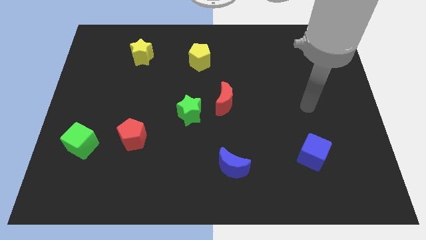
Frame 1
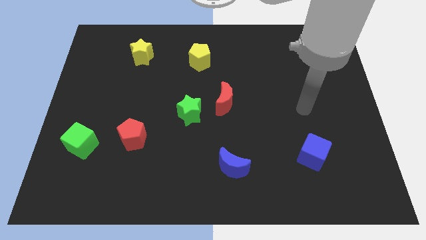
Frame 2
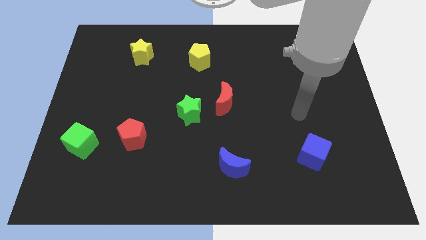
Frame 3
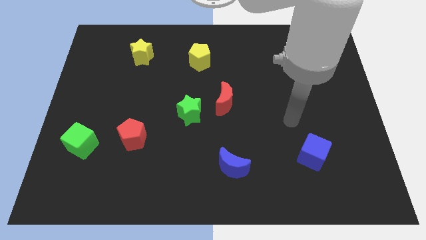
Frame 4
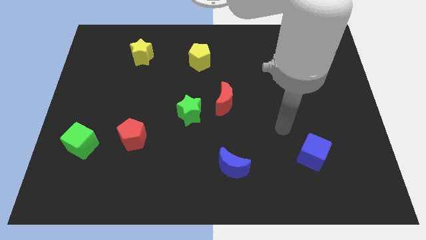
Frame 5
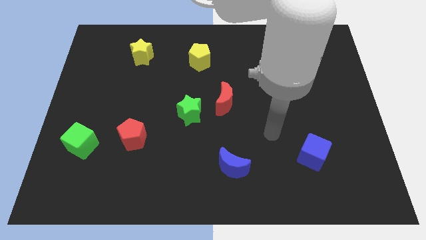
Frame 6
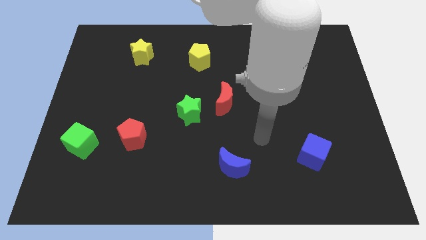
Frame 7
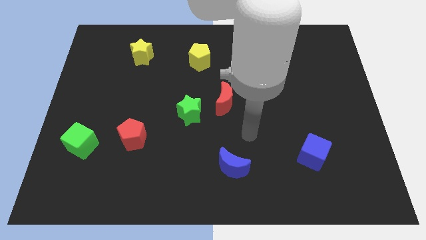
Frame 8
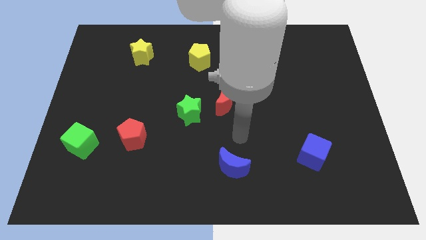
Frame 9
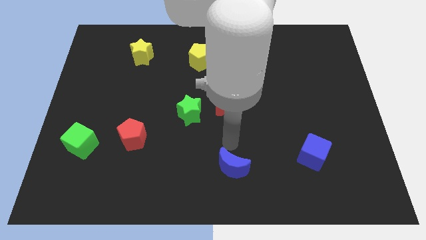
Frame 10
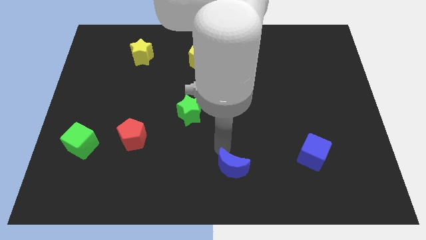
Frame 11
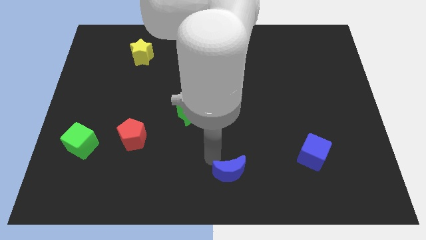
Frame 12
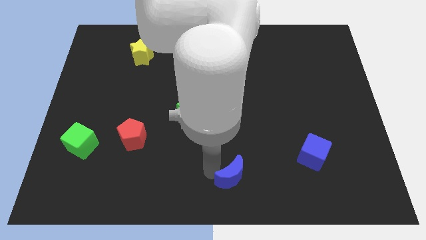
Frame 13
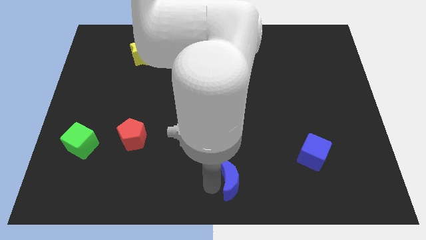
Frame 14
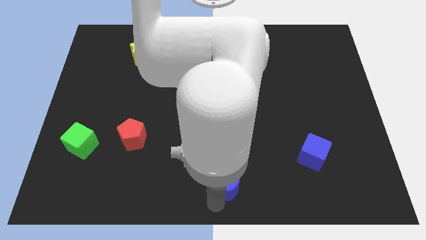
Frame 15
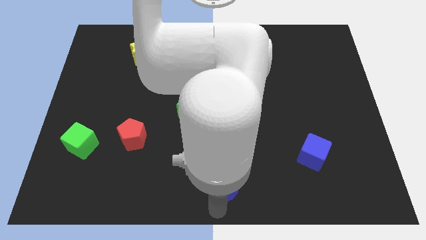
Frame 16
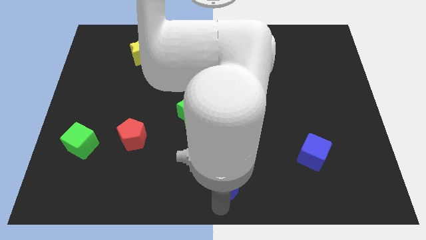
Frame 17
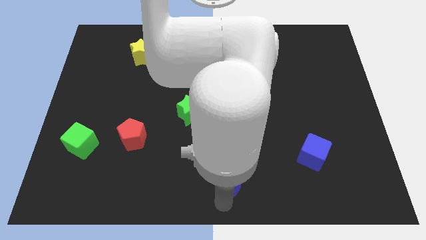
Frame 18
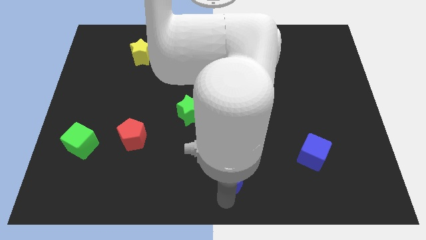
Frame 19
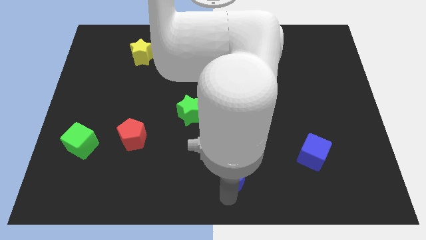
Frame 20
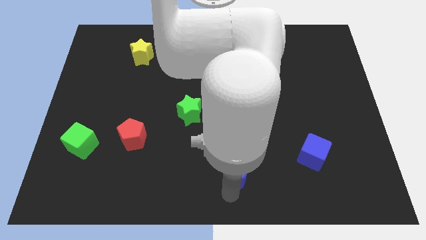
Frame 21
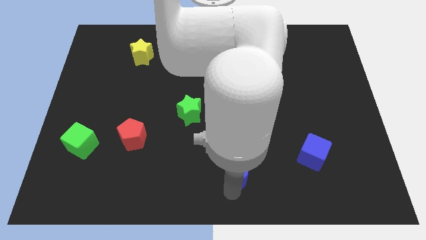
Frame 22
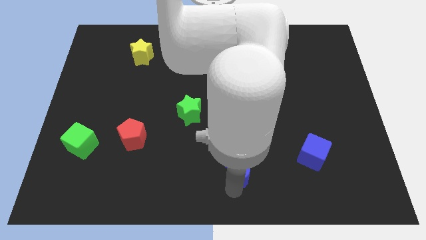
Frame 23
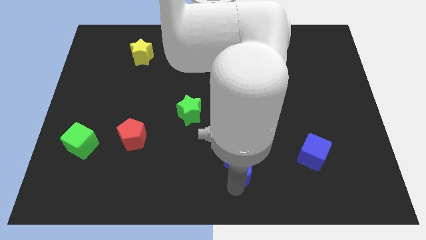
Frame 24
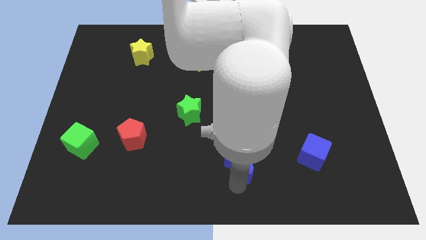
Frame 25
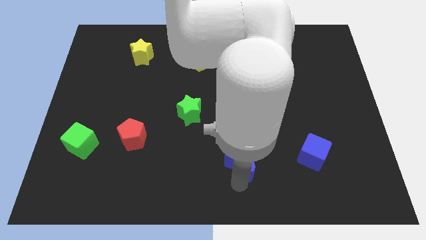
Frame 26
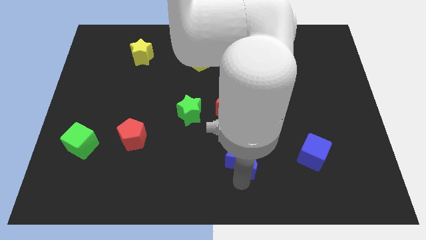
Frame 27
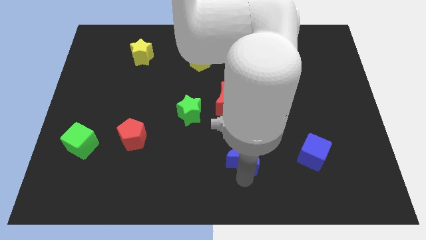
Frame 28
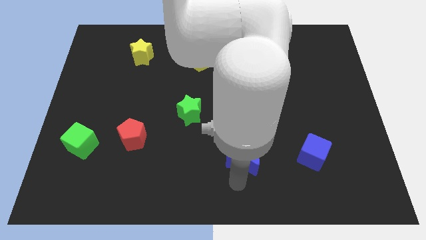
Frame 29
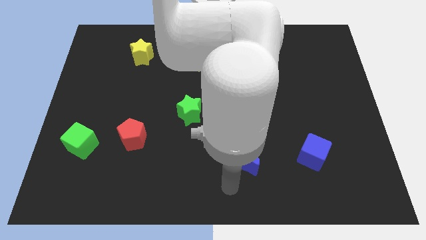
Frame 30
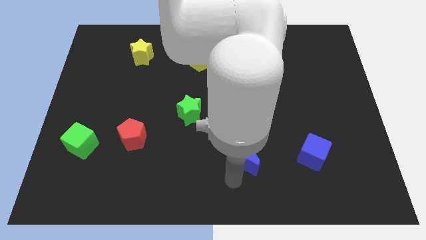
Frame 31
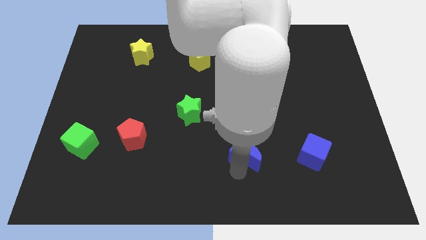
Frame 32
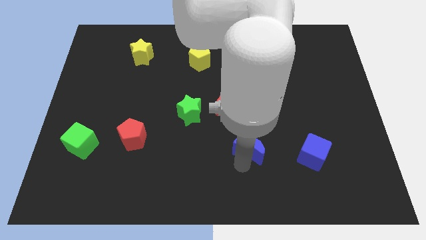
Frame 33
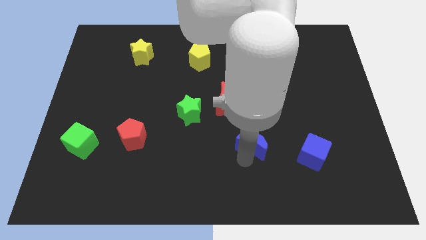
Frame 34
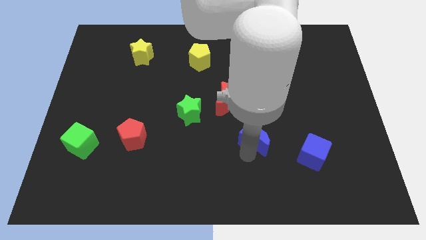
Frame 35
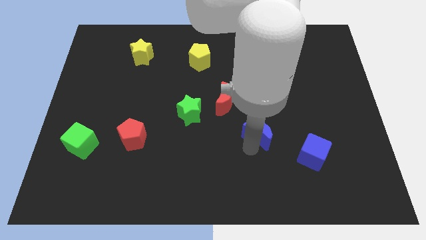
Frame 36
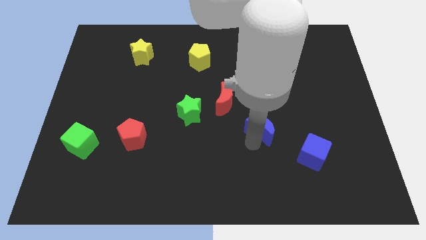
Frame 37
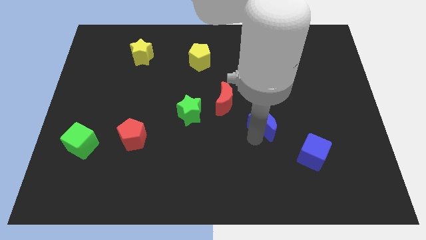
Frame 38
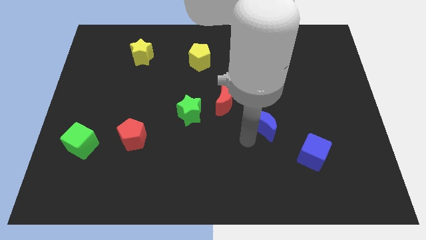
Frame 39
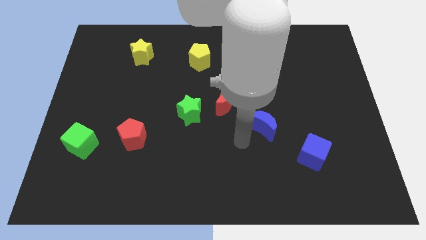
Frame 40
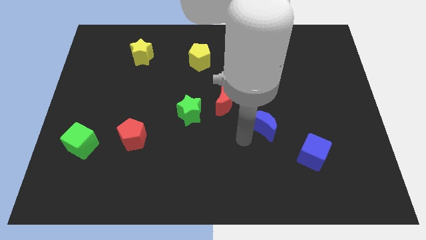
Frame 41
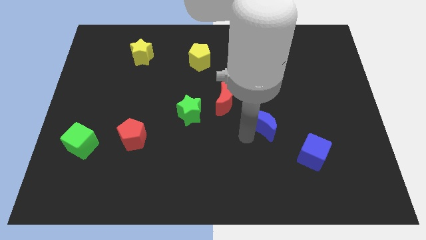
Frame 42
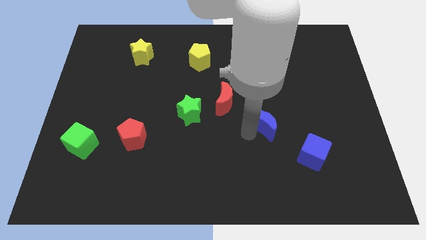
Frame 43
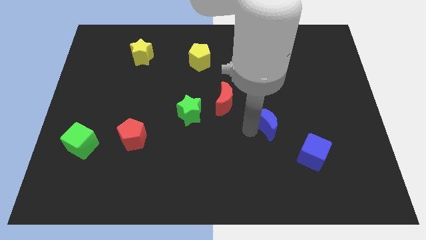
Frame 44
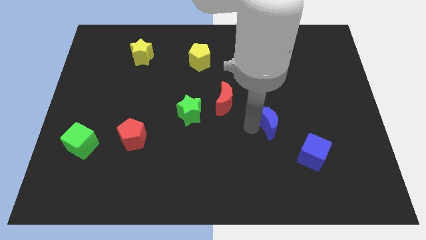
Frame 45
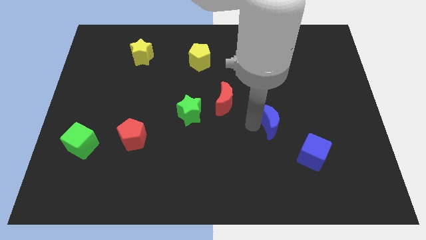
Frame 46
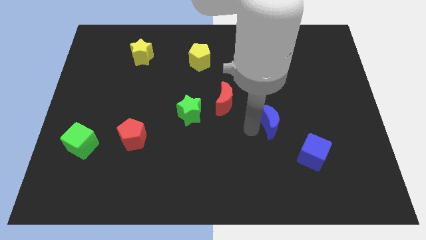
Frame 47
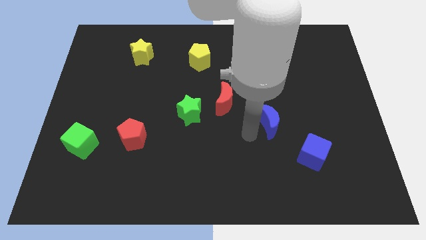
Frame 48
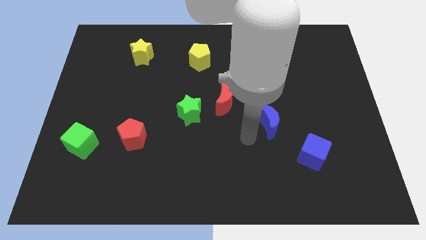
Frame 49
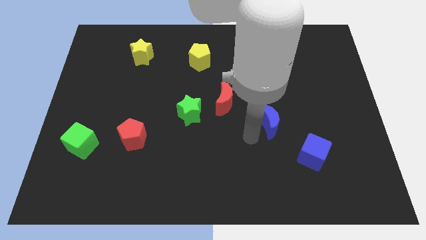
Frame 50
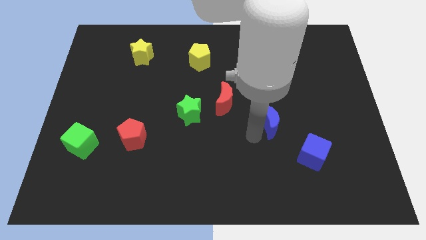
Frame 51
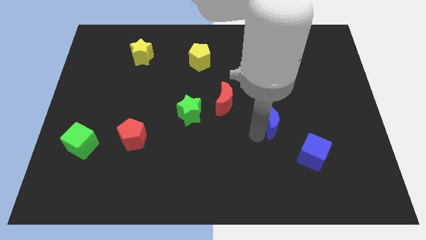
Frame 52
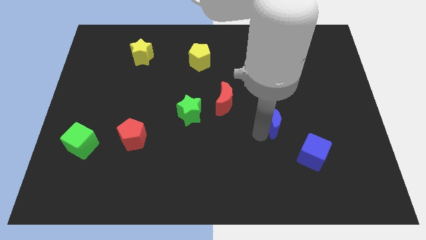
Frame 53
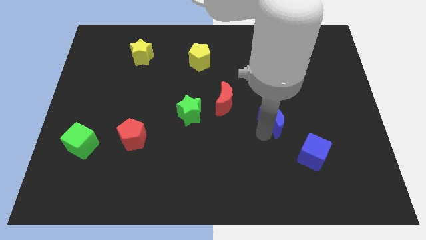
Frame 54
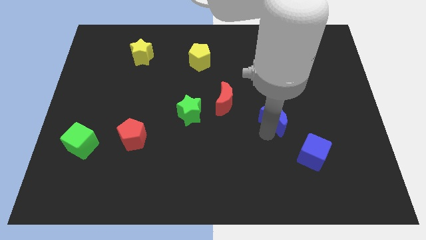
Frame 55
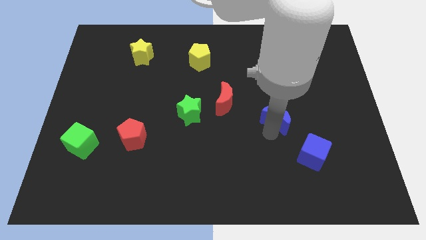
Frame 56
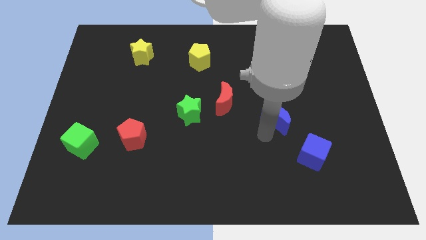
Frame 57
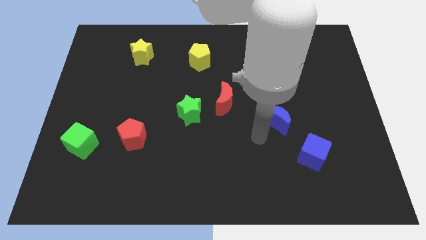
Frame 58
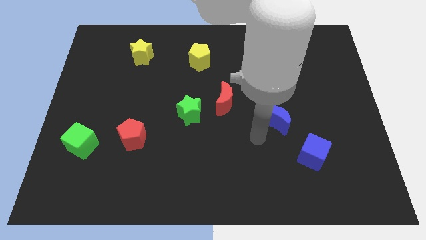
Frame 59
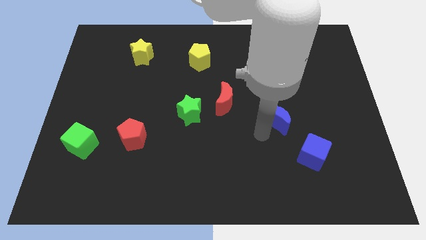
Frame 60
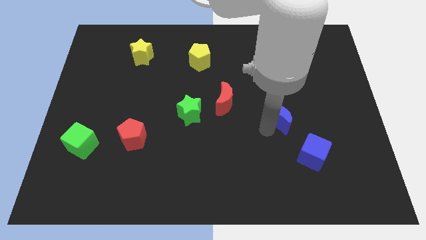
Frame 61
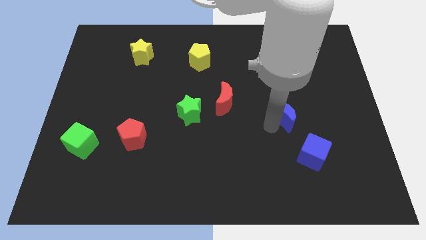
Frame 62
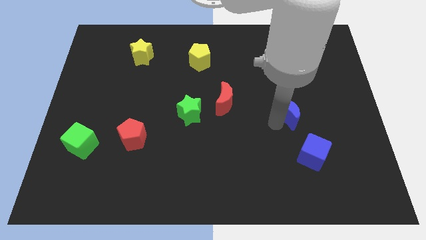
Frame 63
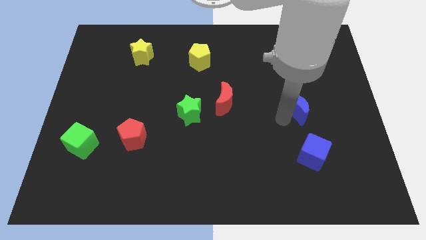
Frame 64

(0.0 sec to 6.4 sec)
move the blue moon up and to the right diagonally

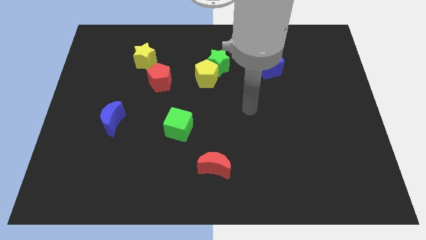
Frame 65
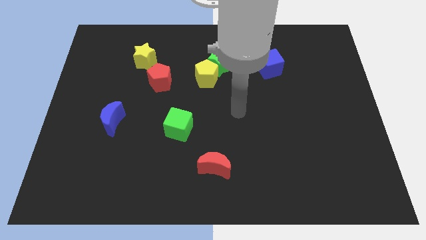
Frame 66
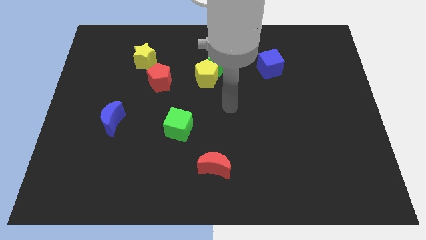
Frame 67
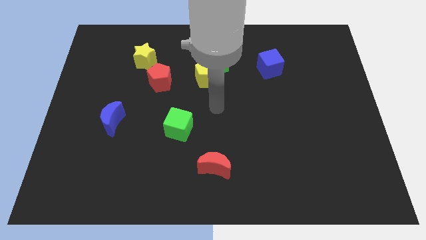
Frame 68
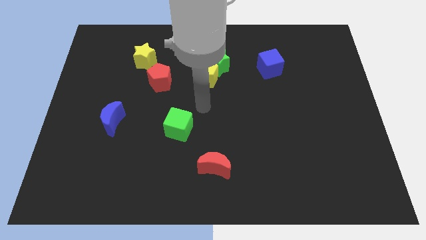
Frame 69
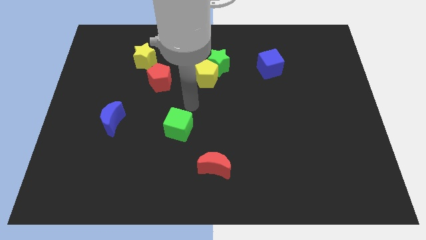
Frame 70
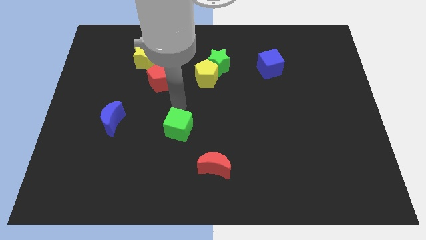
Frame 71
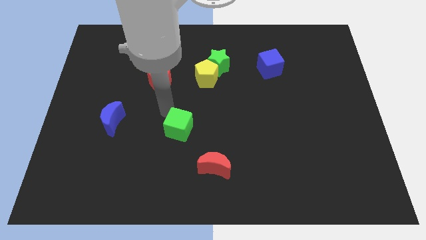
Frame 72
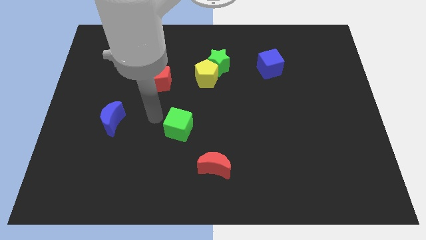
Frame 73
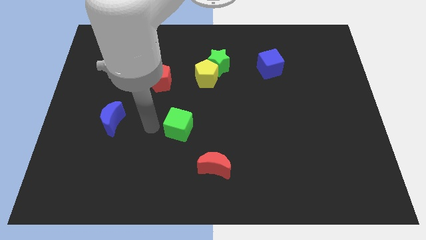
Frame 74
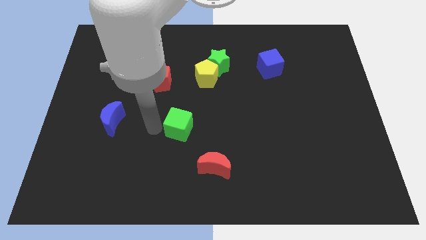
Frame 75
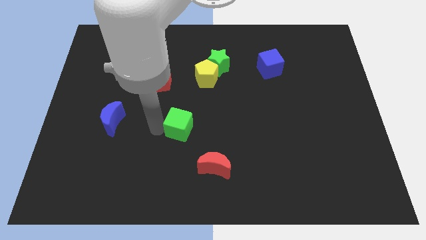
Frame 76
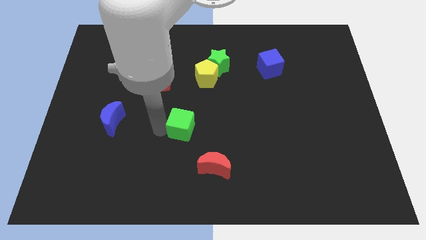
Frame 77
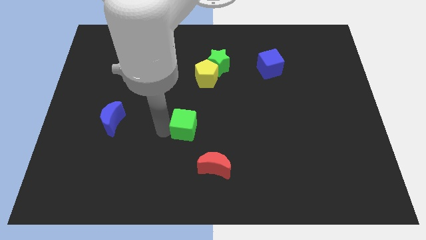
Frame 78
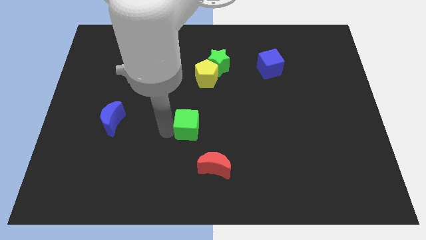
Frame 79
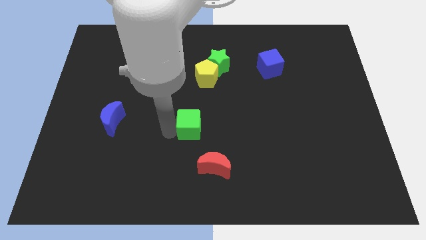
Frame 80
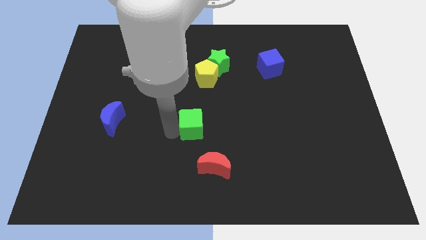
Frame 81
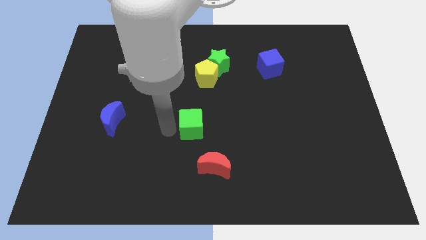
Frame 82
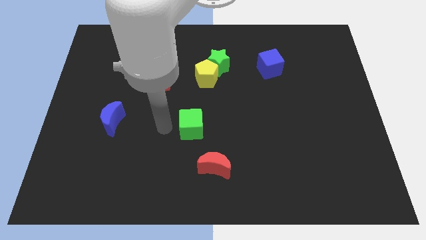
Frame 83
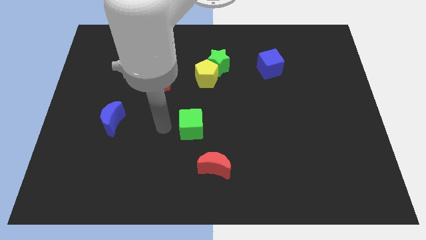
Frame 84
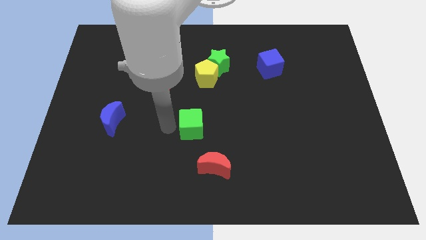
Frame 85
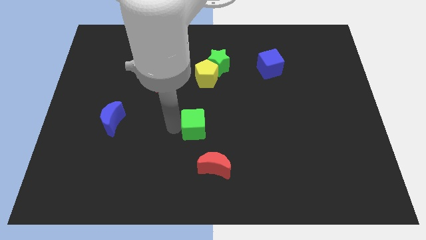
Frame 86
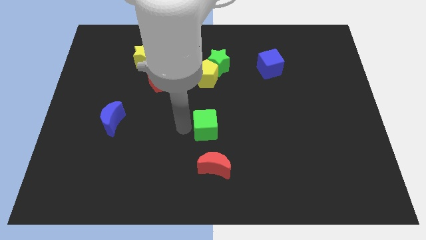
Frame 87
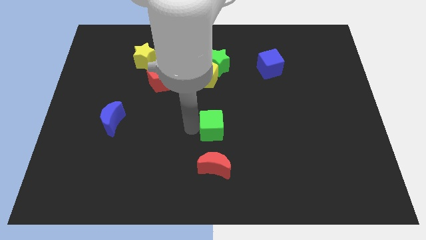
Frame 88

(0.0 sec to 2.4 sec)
move the green cube a little bit to the right
